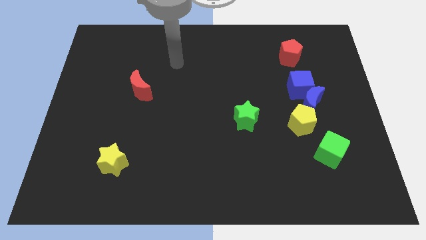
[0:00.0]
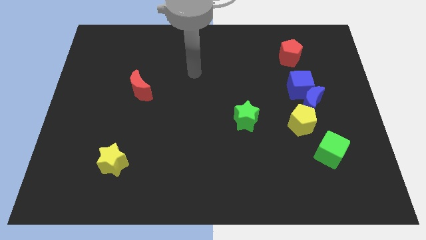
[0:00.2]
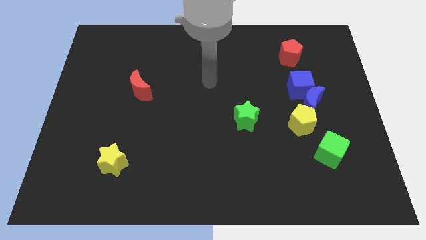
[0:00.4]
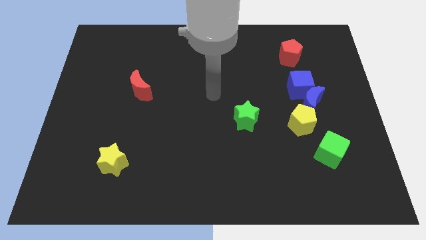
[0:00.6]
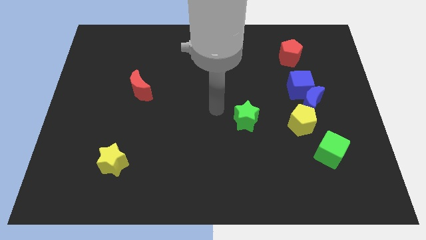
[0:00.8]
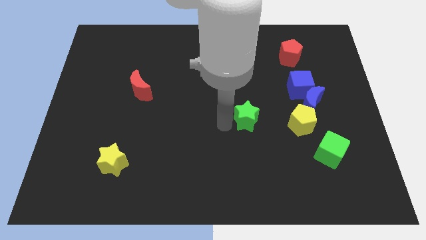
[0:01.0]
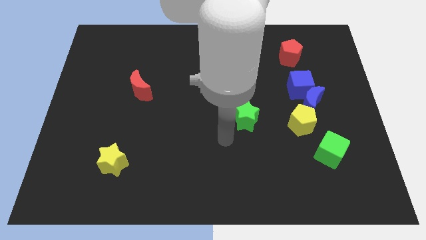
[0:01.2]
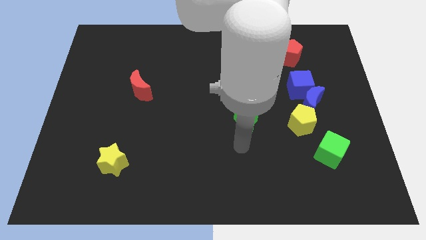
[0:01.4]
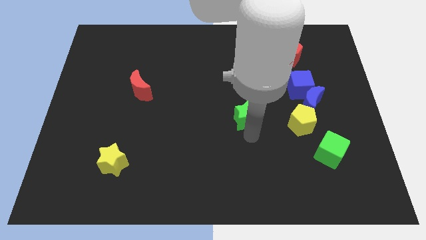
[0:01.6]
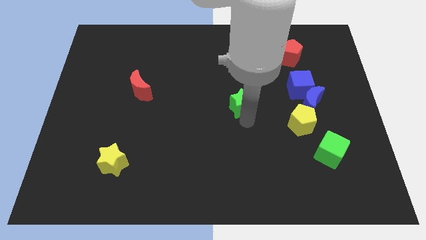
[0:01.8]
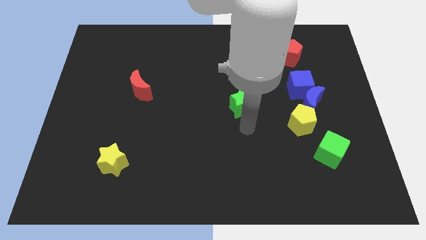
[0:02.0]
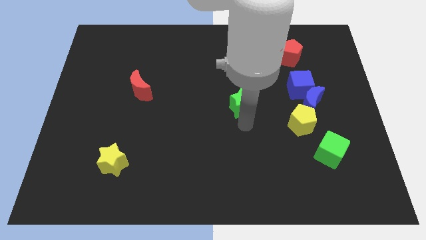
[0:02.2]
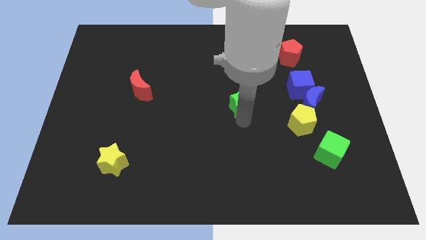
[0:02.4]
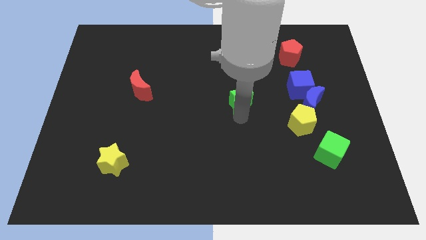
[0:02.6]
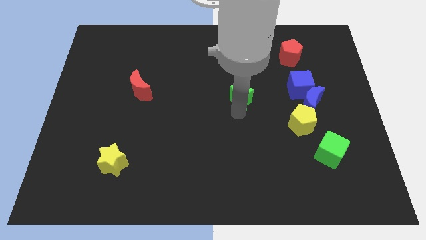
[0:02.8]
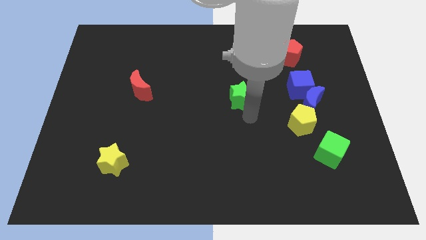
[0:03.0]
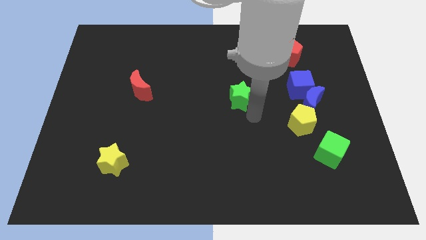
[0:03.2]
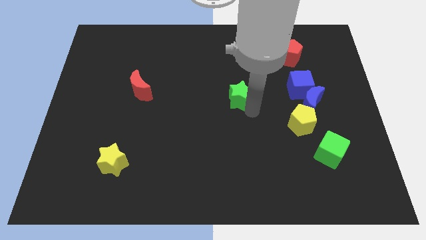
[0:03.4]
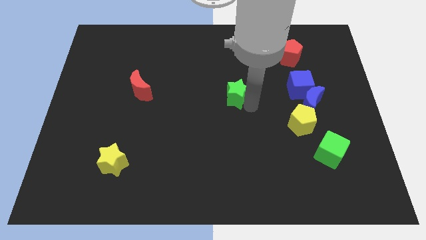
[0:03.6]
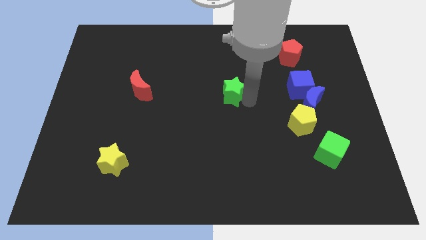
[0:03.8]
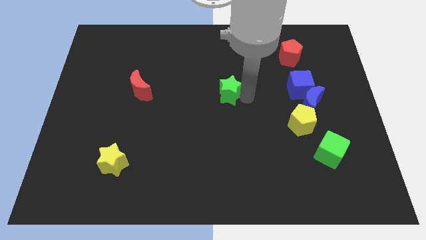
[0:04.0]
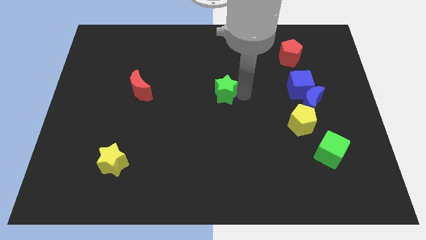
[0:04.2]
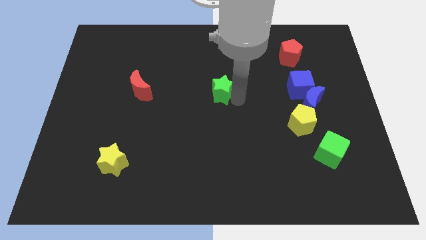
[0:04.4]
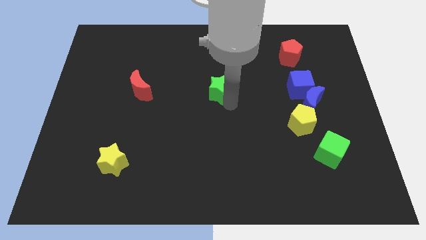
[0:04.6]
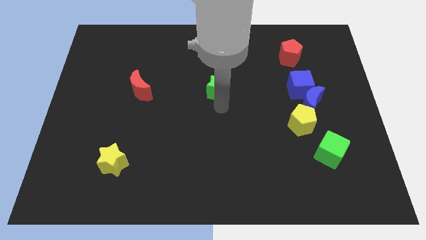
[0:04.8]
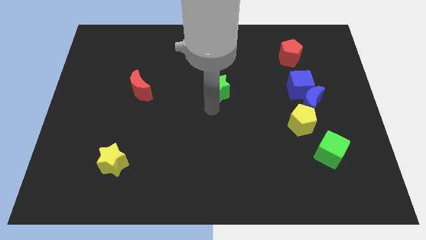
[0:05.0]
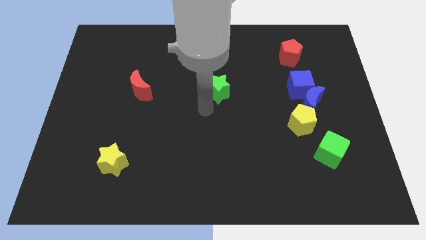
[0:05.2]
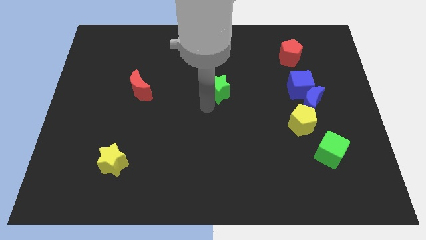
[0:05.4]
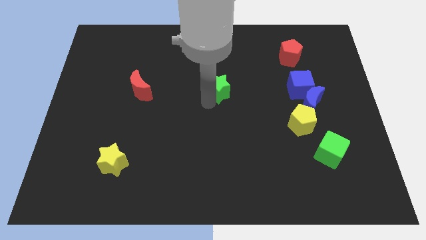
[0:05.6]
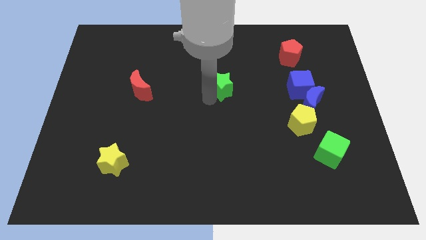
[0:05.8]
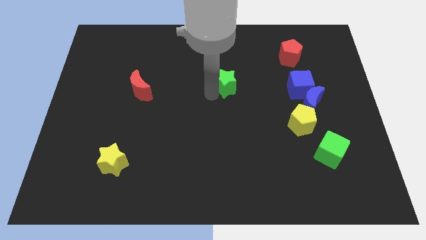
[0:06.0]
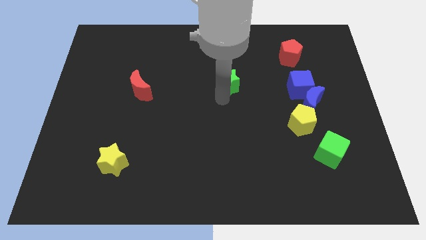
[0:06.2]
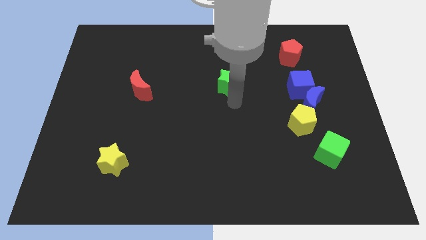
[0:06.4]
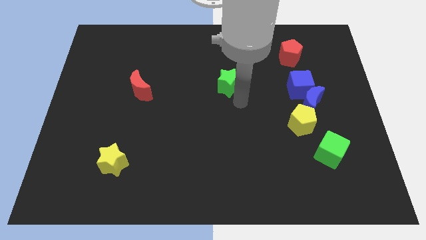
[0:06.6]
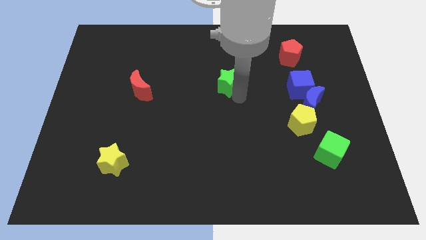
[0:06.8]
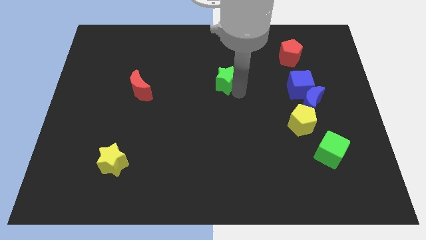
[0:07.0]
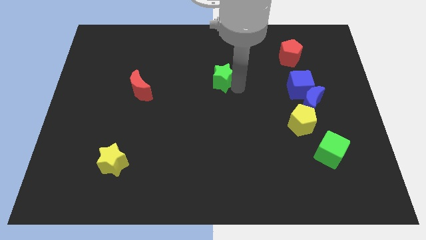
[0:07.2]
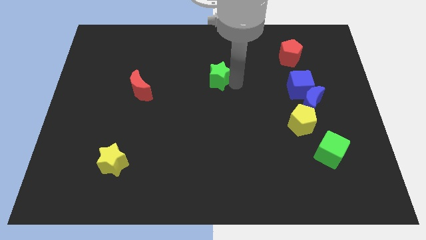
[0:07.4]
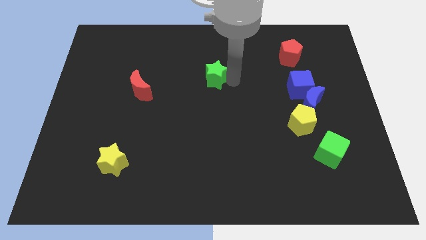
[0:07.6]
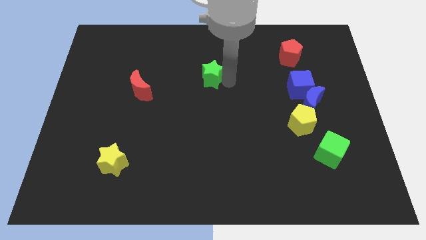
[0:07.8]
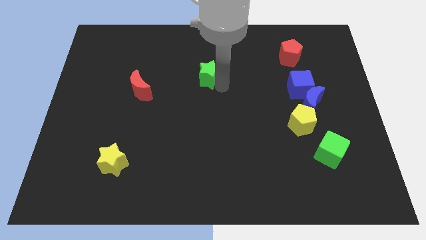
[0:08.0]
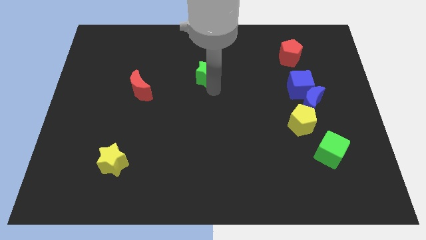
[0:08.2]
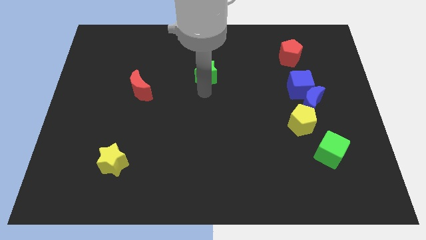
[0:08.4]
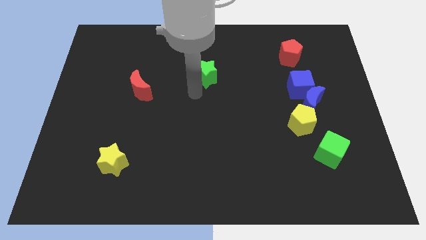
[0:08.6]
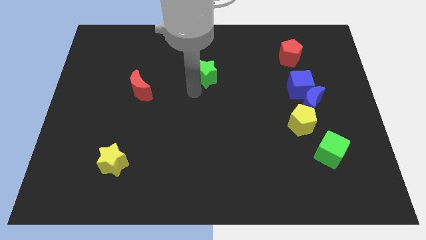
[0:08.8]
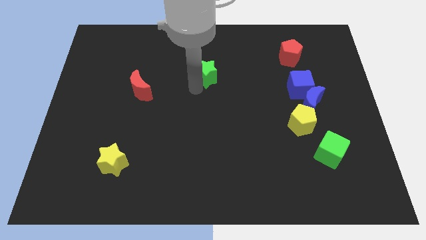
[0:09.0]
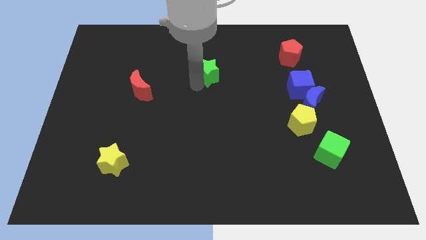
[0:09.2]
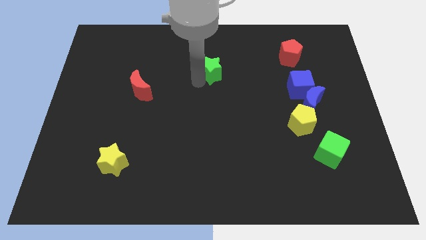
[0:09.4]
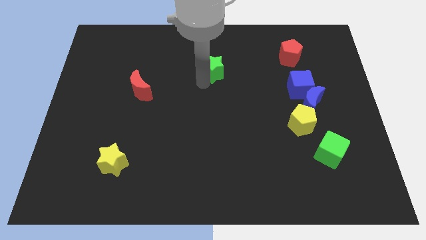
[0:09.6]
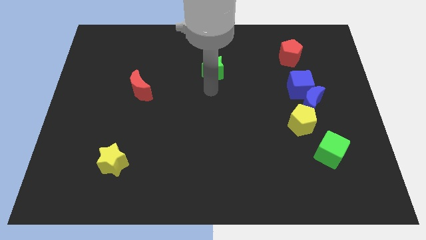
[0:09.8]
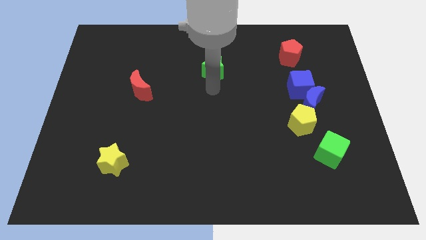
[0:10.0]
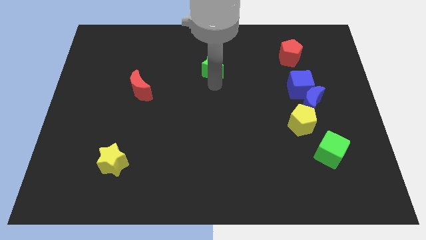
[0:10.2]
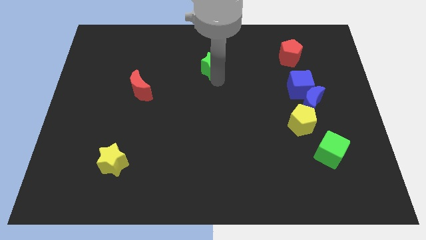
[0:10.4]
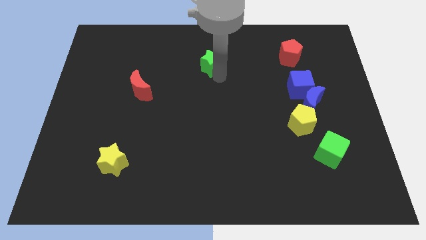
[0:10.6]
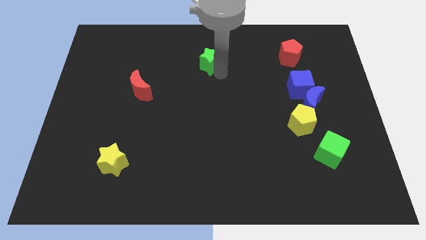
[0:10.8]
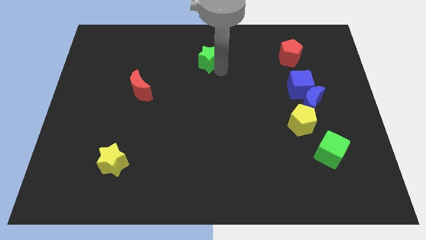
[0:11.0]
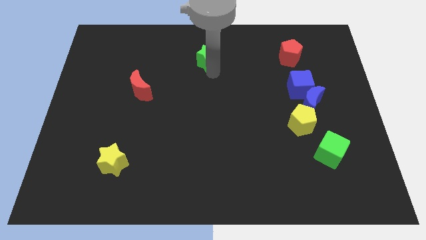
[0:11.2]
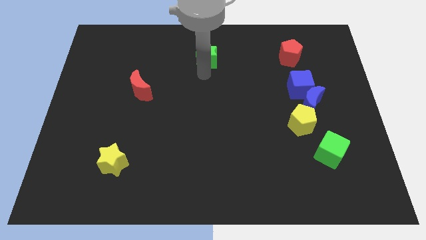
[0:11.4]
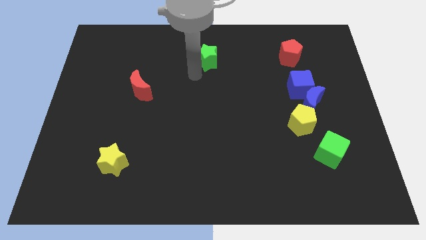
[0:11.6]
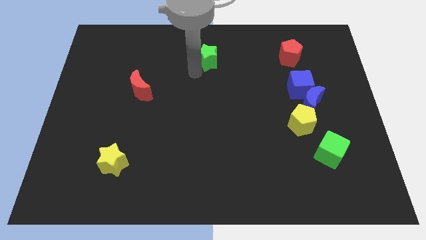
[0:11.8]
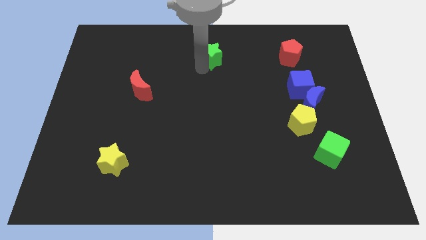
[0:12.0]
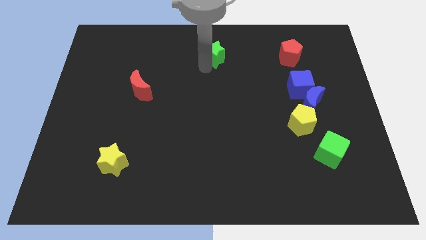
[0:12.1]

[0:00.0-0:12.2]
move the green star to the top side

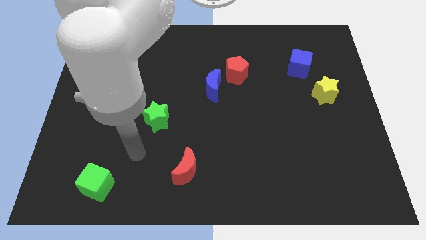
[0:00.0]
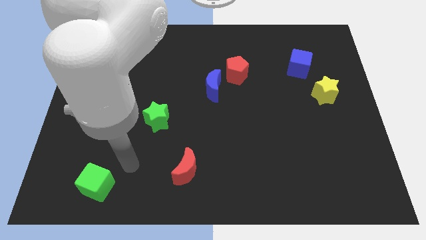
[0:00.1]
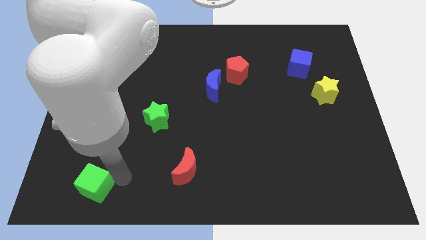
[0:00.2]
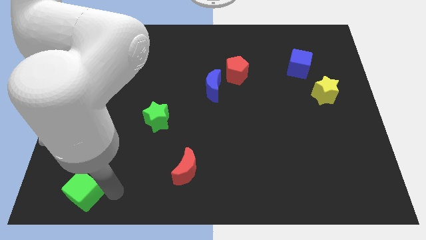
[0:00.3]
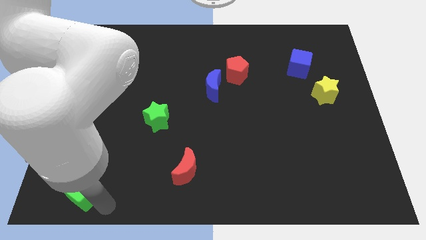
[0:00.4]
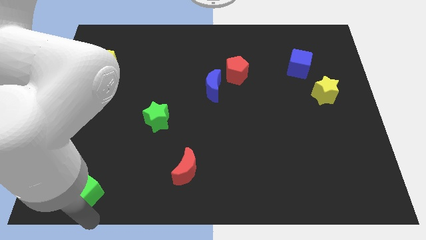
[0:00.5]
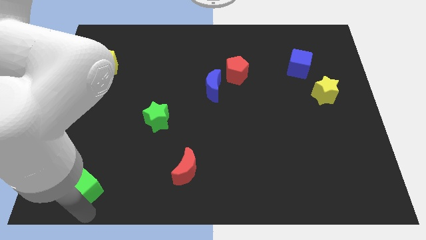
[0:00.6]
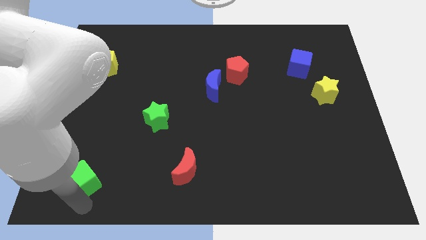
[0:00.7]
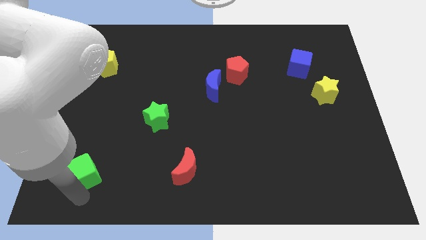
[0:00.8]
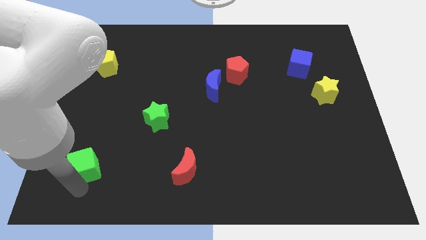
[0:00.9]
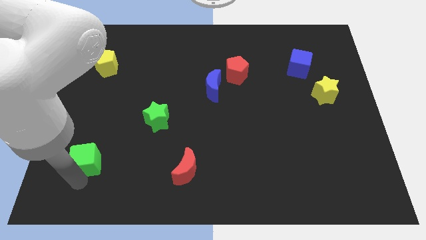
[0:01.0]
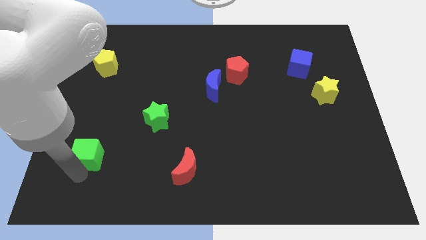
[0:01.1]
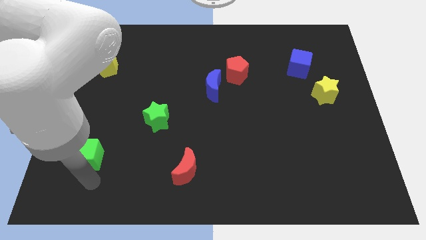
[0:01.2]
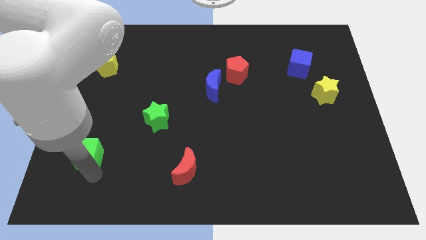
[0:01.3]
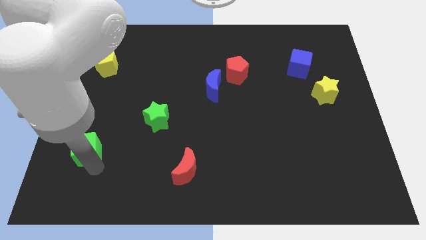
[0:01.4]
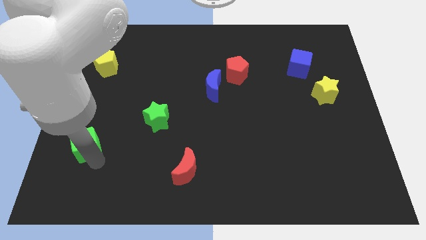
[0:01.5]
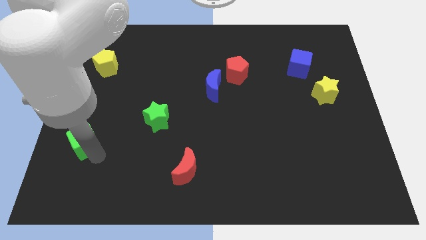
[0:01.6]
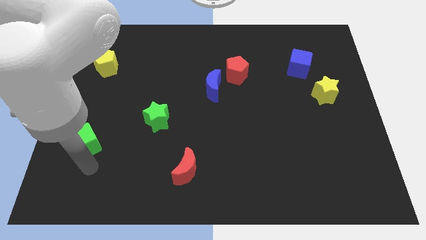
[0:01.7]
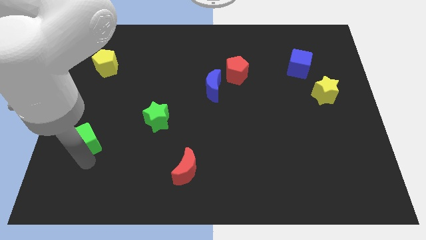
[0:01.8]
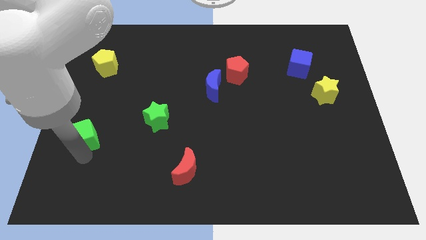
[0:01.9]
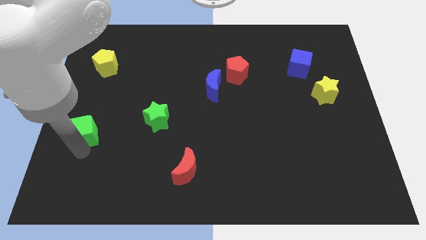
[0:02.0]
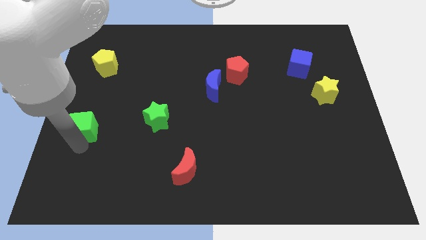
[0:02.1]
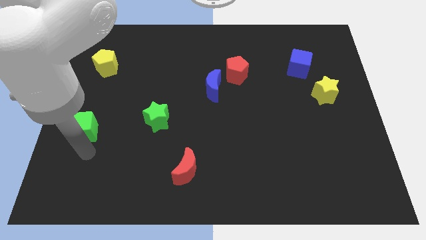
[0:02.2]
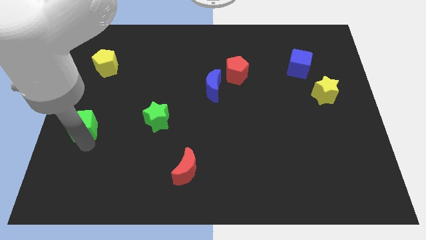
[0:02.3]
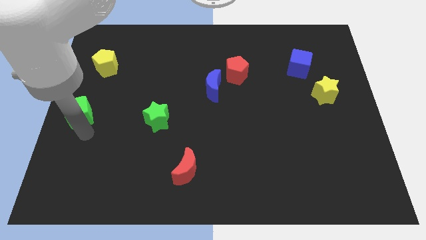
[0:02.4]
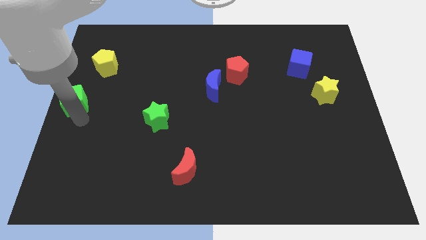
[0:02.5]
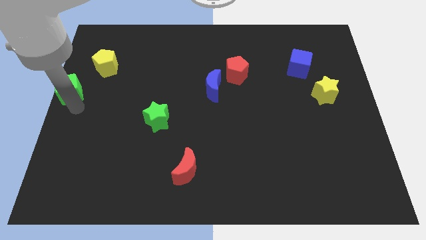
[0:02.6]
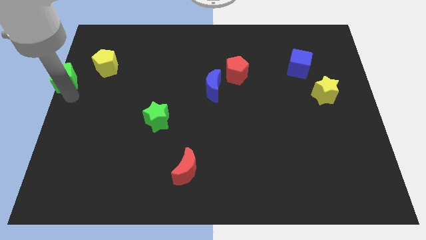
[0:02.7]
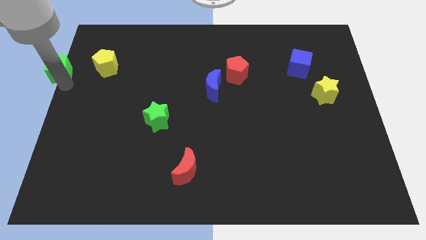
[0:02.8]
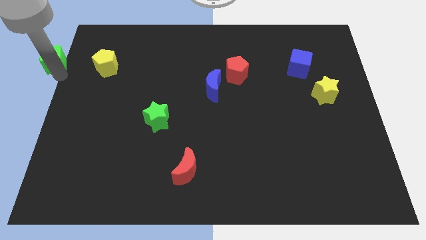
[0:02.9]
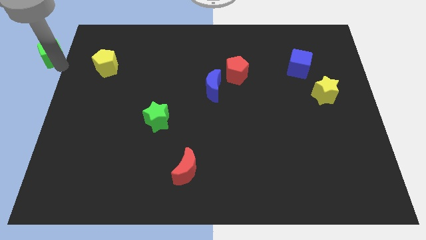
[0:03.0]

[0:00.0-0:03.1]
slide the green cube to the upper left corner
